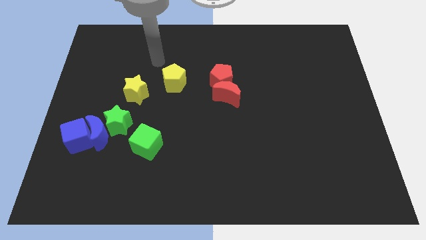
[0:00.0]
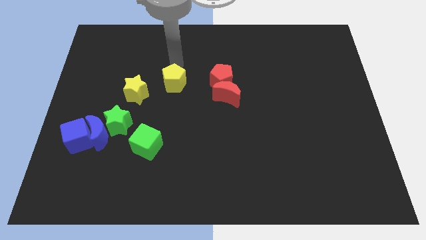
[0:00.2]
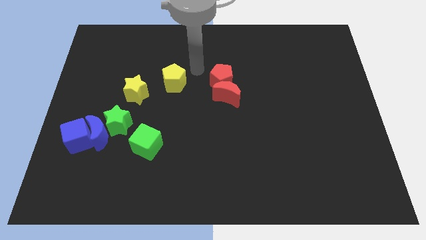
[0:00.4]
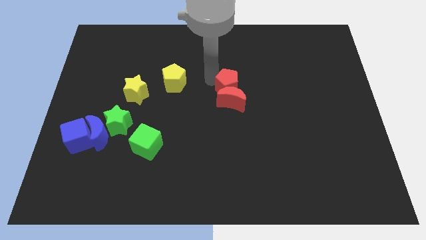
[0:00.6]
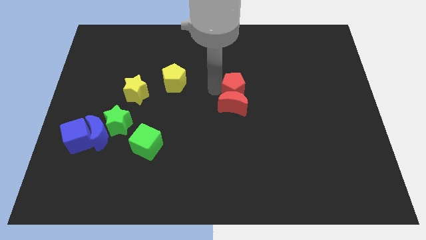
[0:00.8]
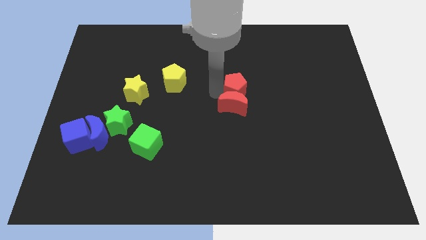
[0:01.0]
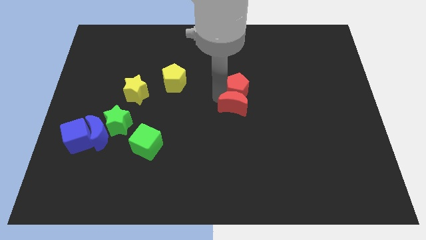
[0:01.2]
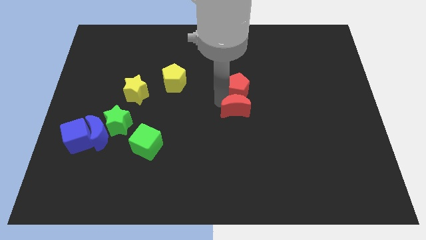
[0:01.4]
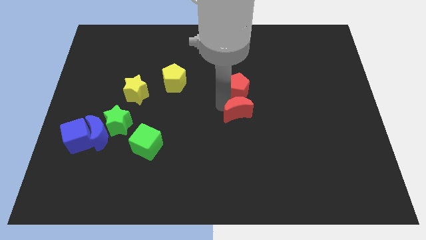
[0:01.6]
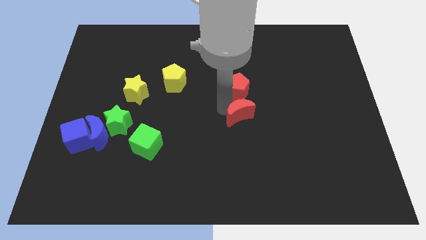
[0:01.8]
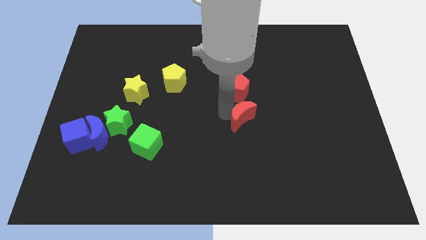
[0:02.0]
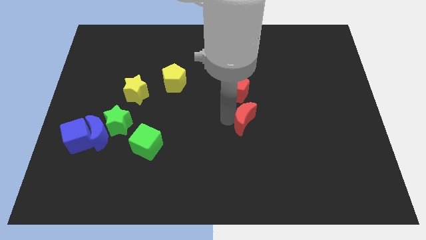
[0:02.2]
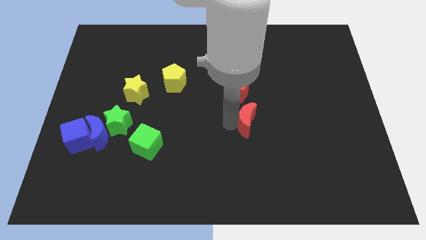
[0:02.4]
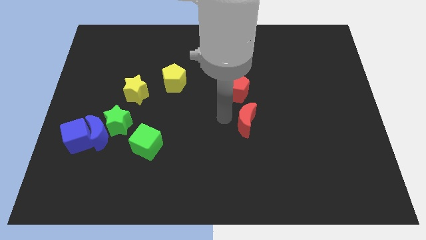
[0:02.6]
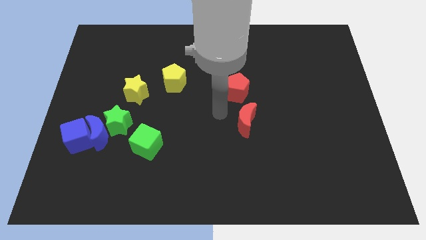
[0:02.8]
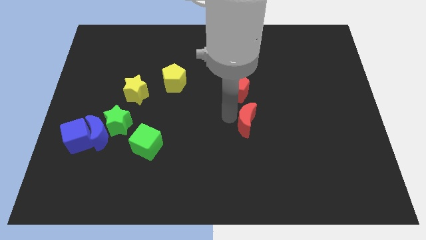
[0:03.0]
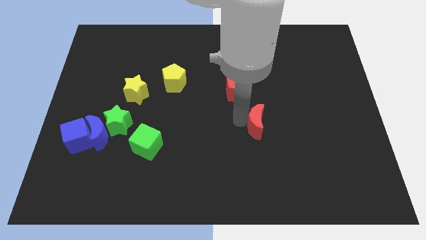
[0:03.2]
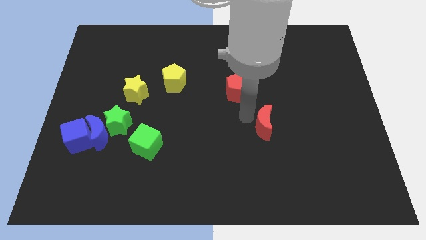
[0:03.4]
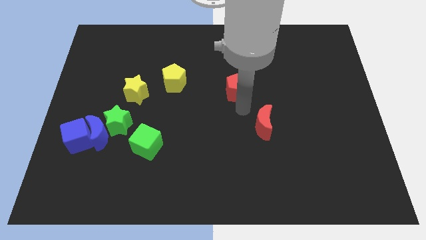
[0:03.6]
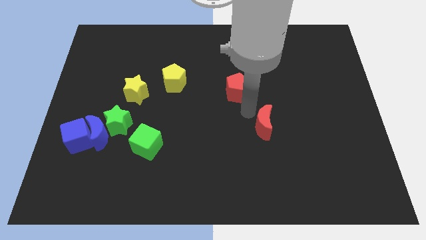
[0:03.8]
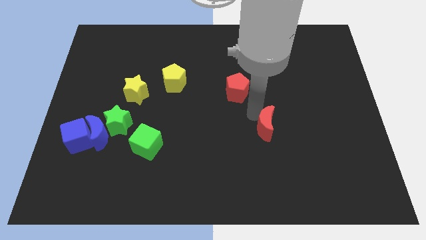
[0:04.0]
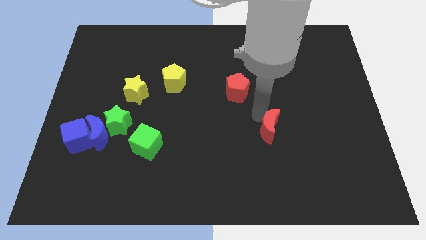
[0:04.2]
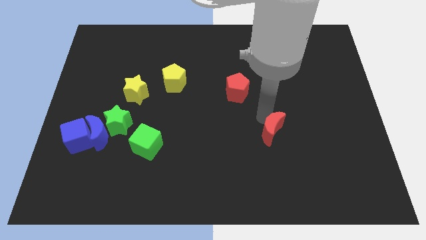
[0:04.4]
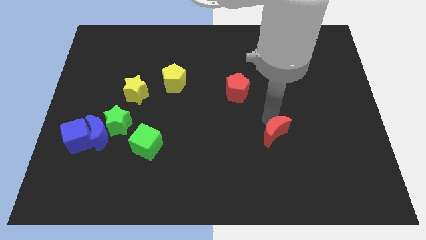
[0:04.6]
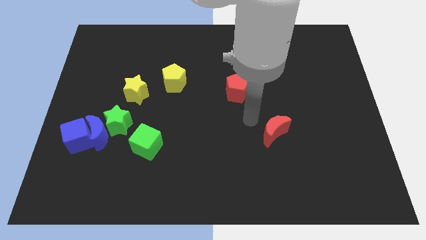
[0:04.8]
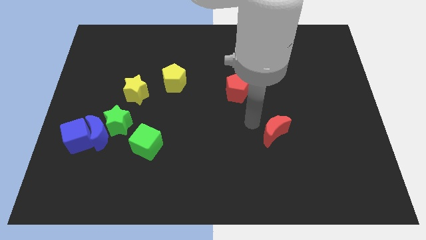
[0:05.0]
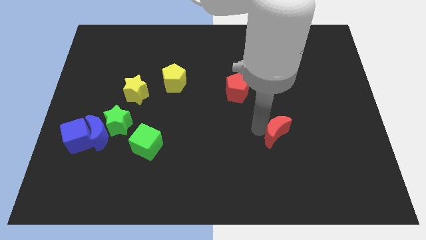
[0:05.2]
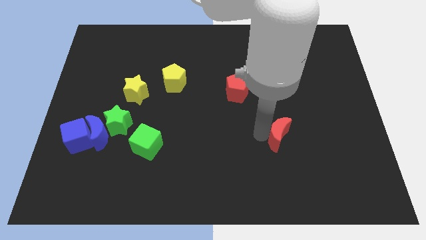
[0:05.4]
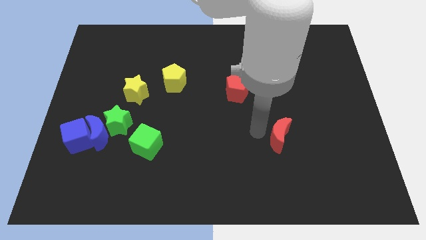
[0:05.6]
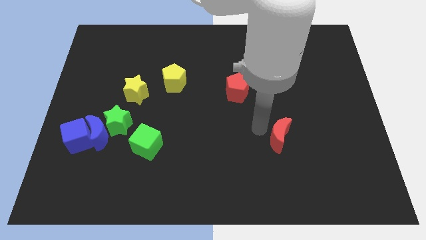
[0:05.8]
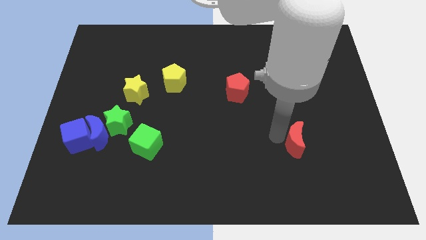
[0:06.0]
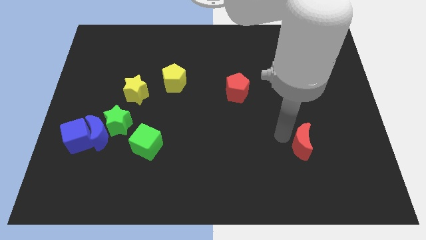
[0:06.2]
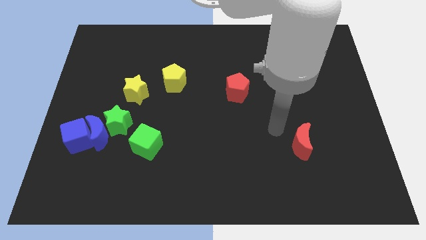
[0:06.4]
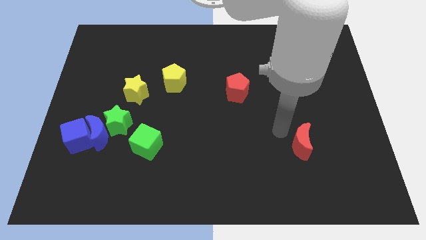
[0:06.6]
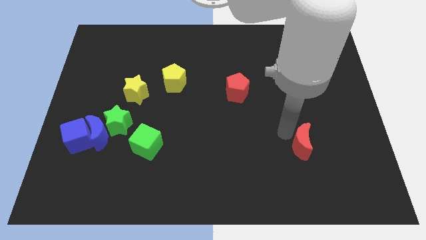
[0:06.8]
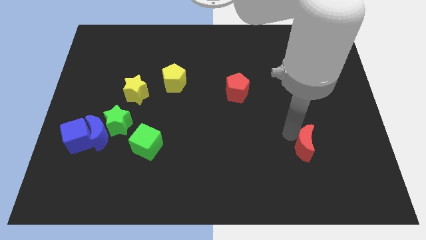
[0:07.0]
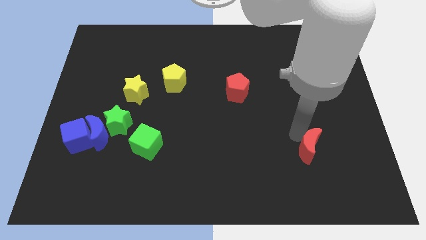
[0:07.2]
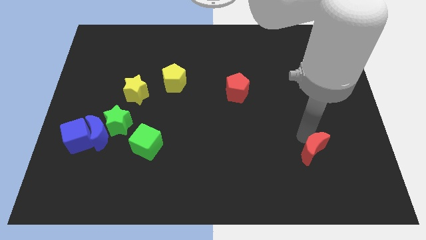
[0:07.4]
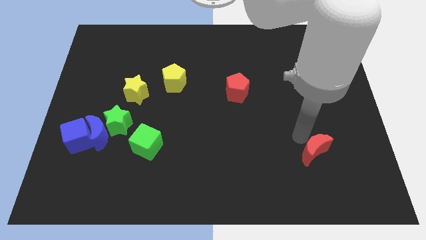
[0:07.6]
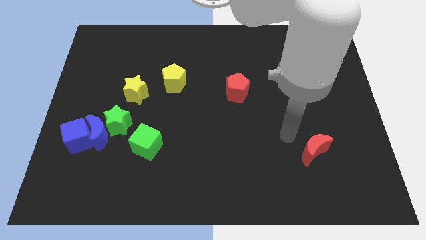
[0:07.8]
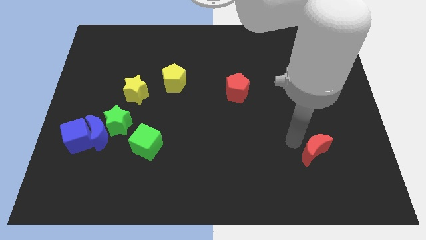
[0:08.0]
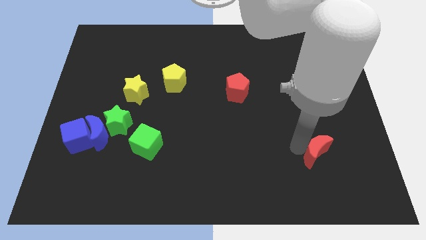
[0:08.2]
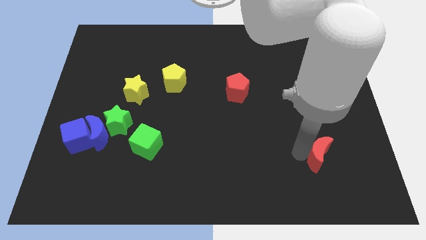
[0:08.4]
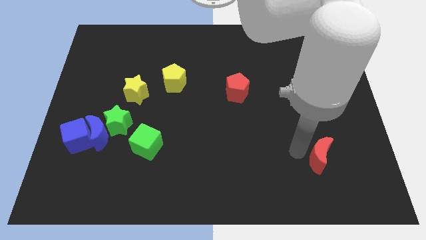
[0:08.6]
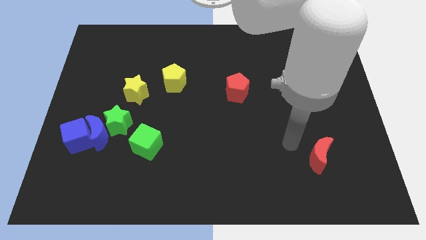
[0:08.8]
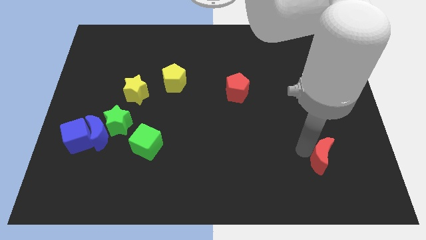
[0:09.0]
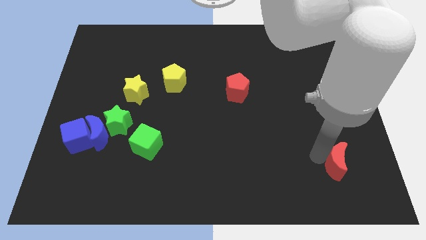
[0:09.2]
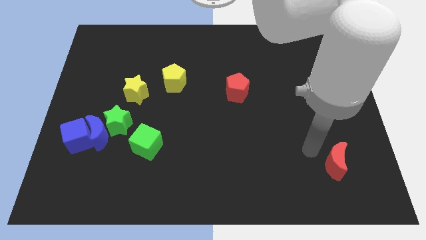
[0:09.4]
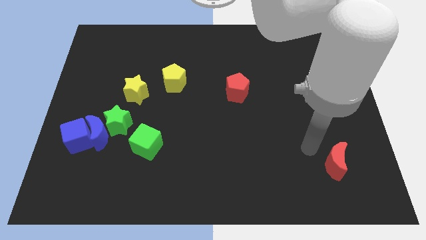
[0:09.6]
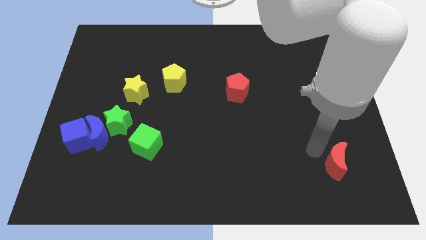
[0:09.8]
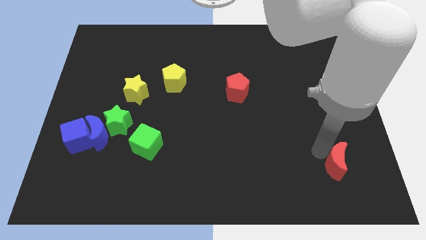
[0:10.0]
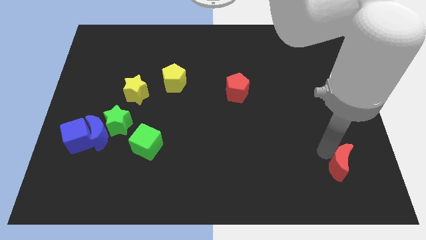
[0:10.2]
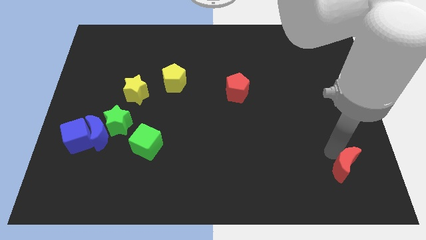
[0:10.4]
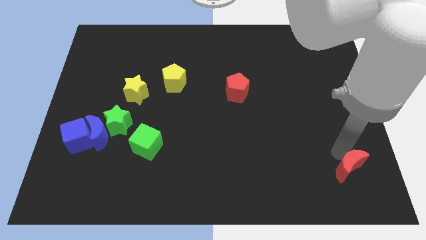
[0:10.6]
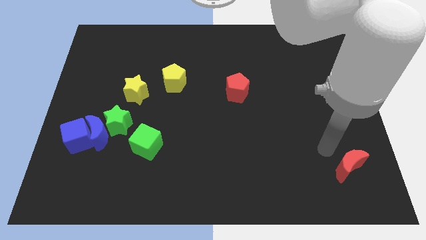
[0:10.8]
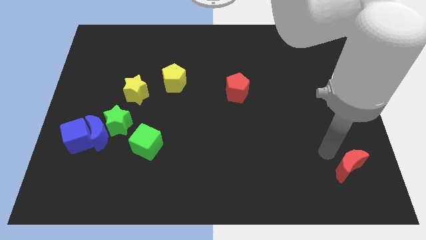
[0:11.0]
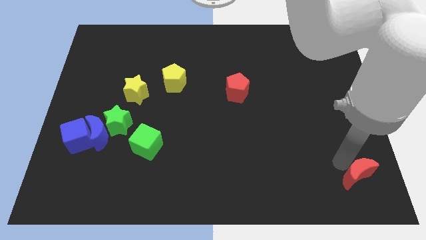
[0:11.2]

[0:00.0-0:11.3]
put the red moon to the bottom right of the board

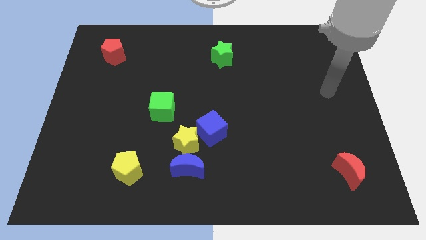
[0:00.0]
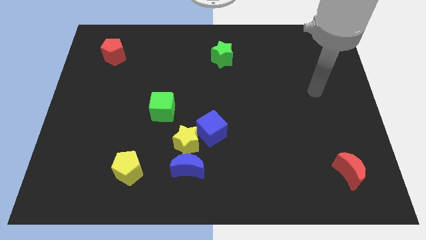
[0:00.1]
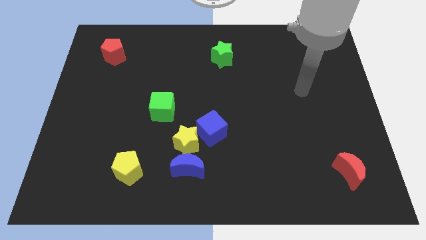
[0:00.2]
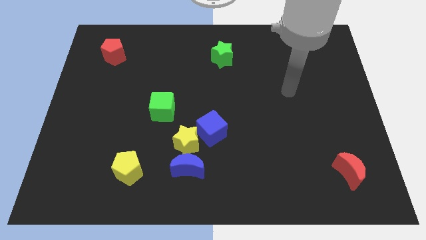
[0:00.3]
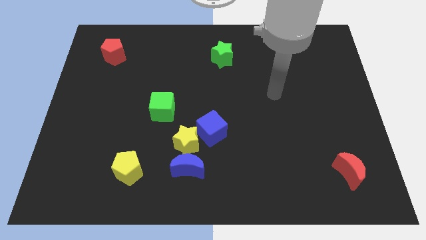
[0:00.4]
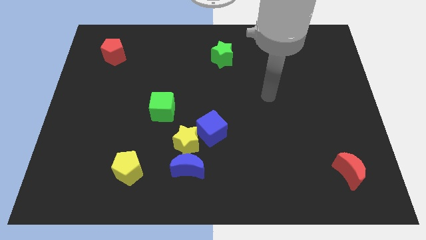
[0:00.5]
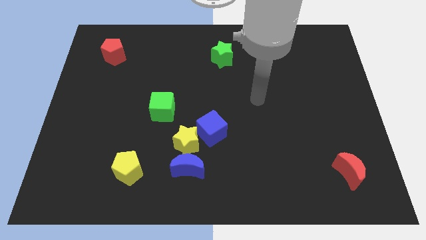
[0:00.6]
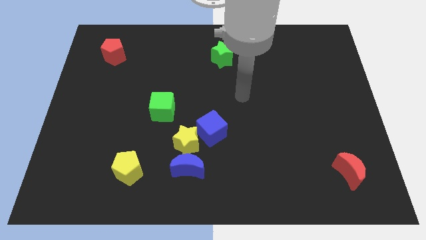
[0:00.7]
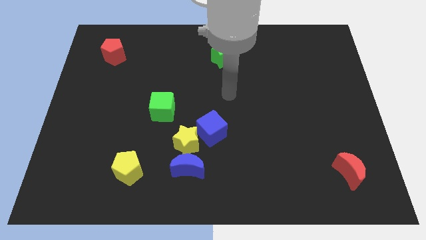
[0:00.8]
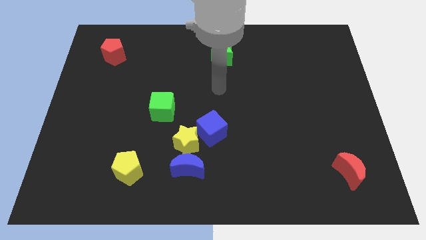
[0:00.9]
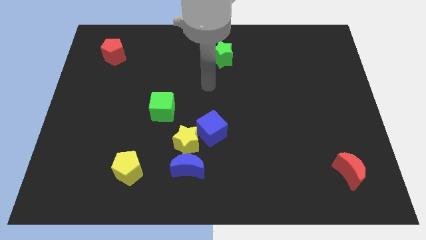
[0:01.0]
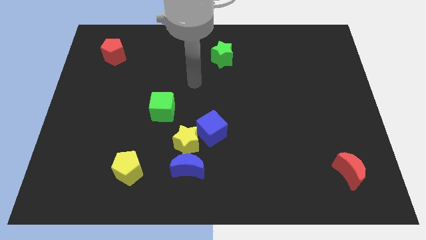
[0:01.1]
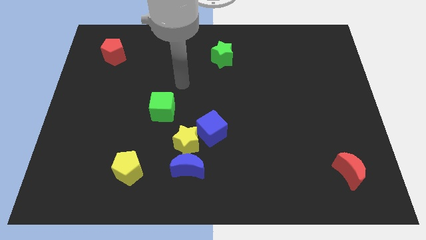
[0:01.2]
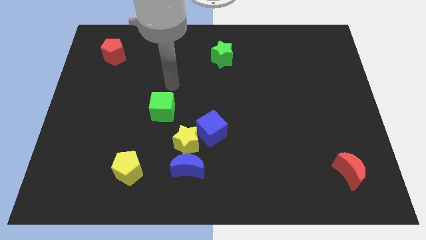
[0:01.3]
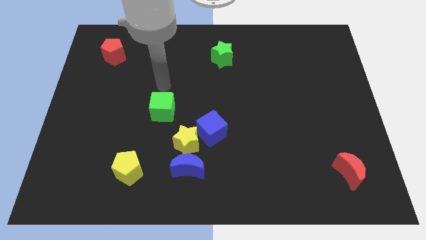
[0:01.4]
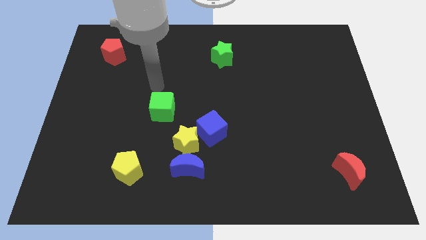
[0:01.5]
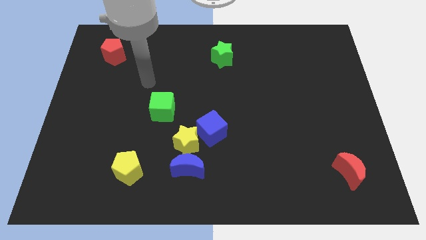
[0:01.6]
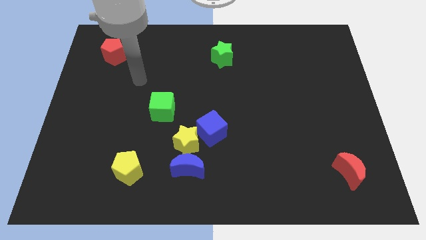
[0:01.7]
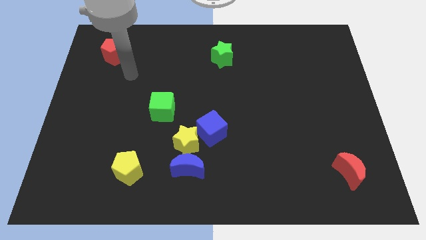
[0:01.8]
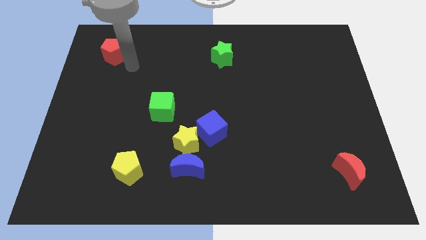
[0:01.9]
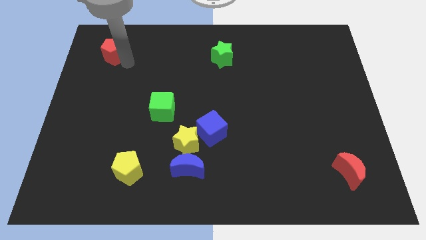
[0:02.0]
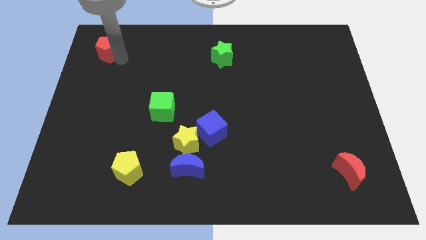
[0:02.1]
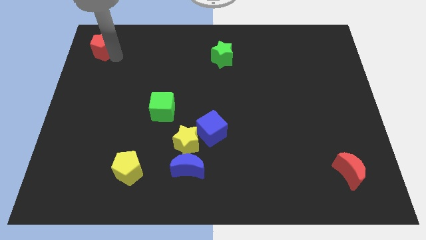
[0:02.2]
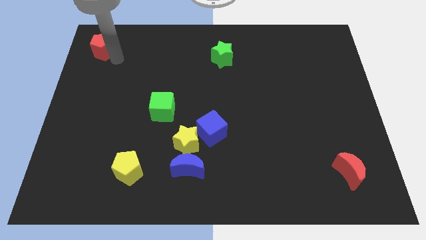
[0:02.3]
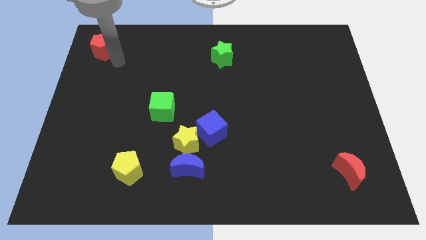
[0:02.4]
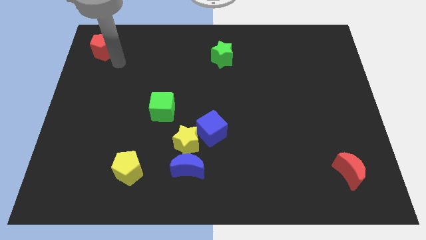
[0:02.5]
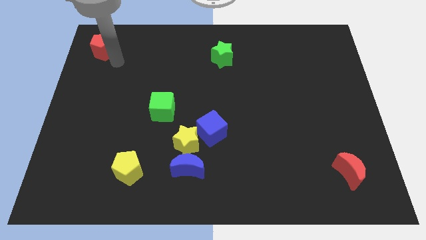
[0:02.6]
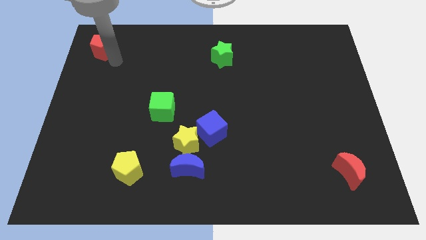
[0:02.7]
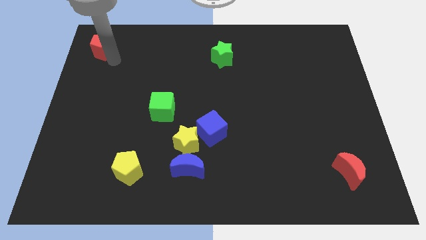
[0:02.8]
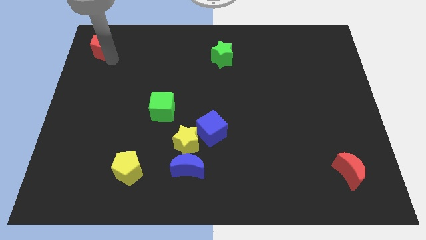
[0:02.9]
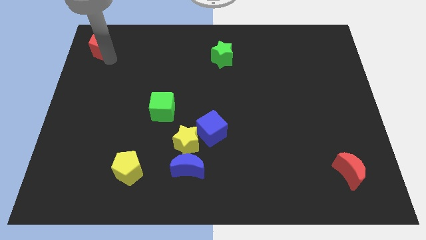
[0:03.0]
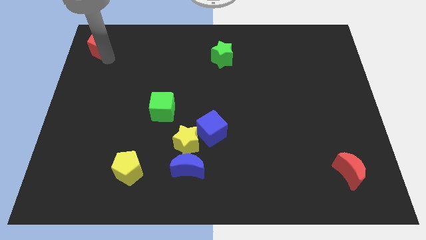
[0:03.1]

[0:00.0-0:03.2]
put the red pentagon to the top left corner
